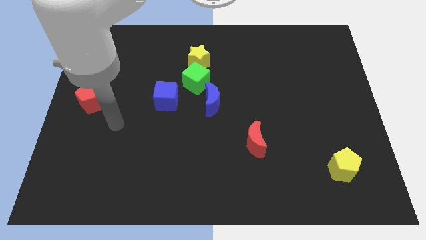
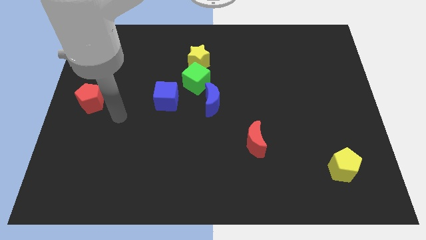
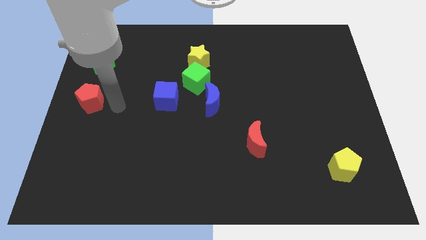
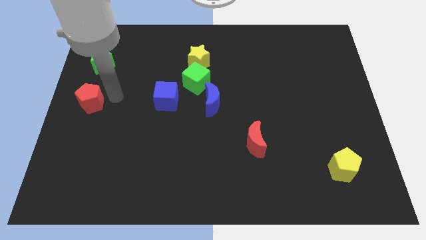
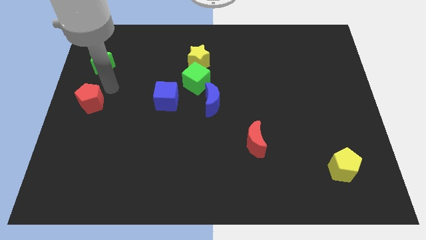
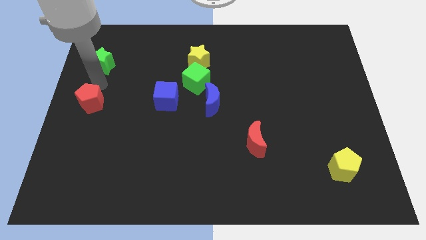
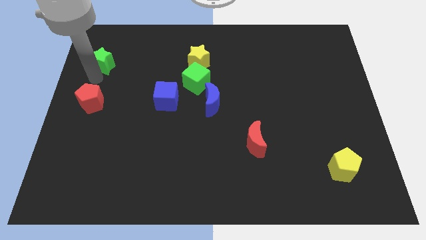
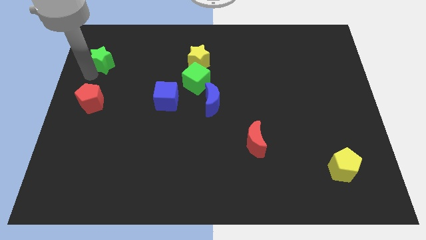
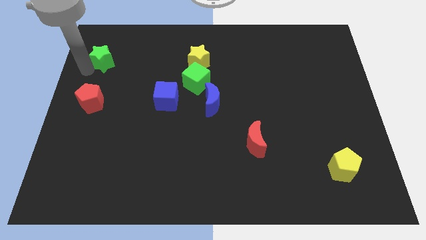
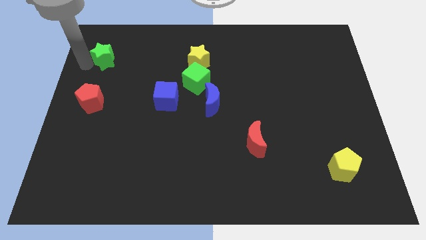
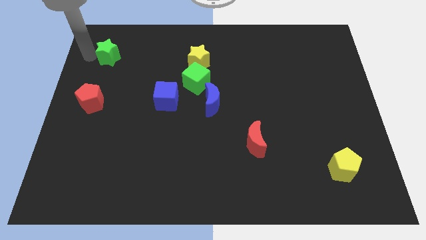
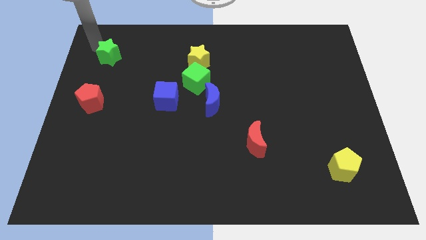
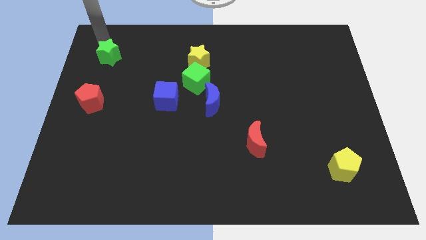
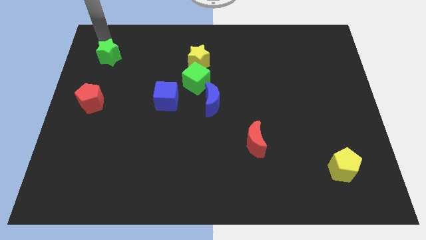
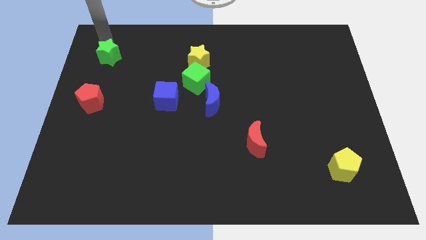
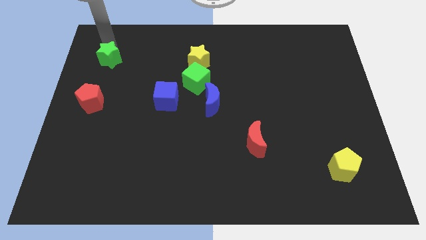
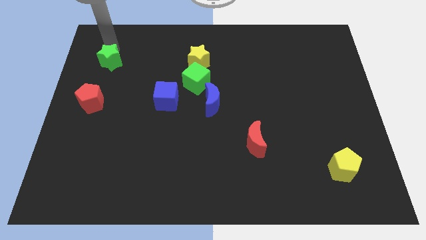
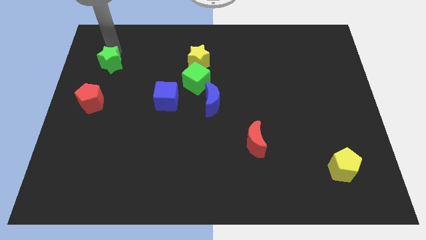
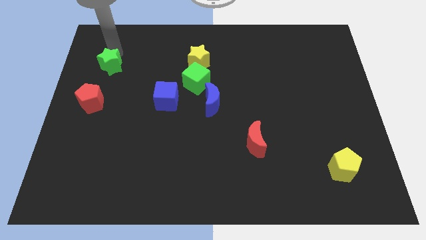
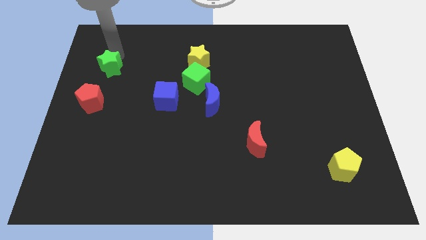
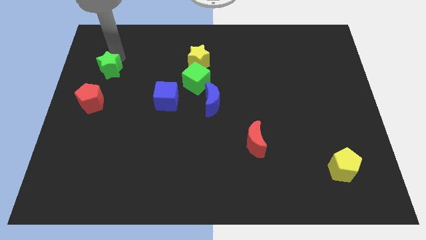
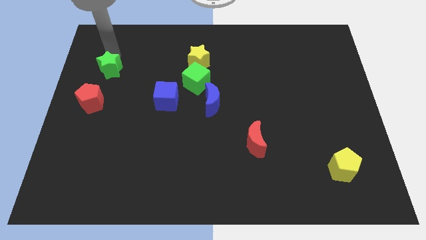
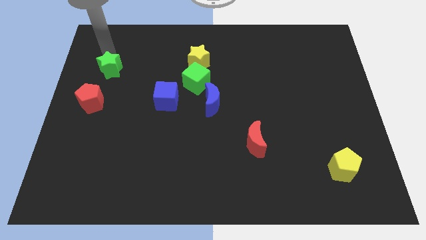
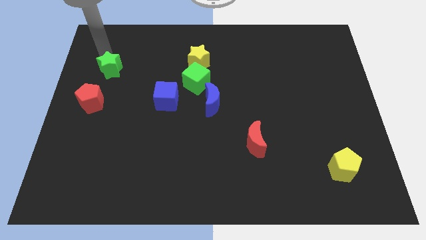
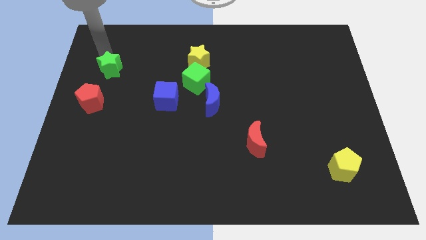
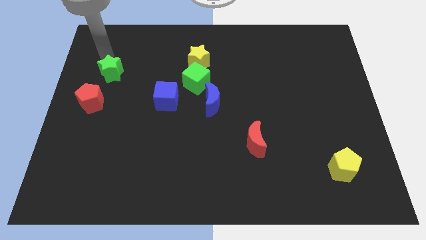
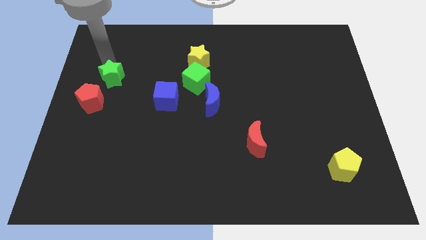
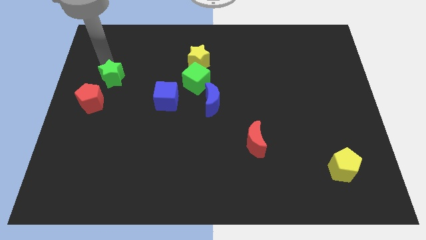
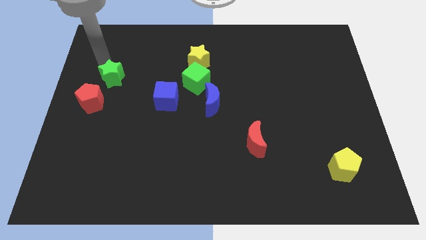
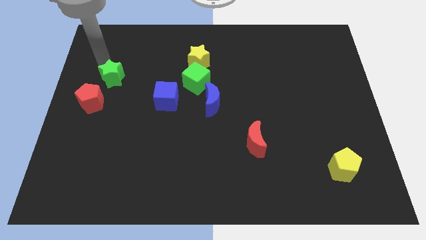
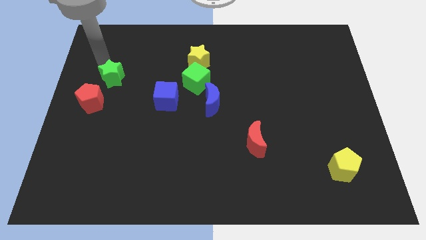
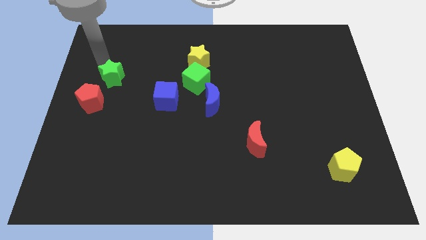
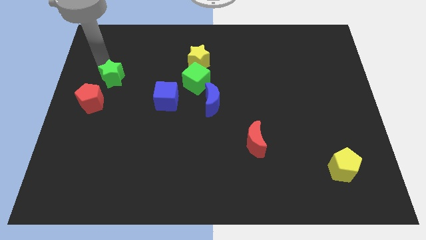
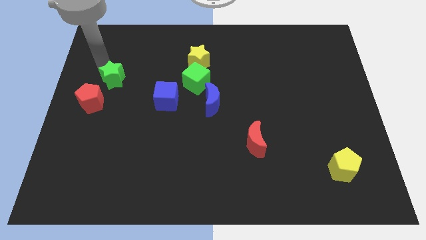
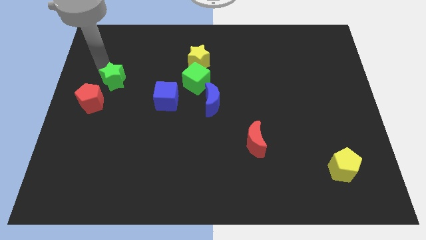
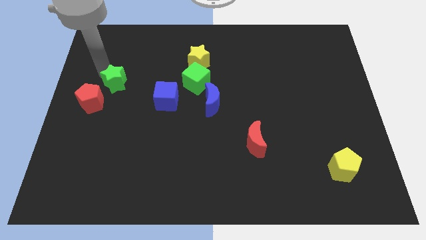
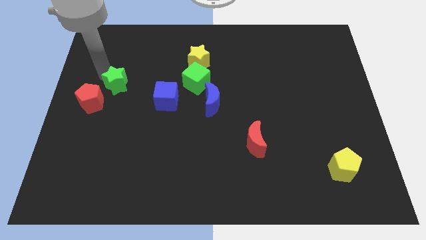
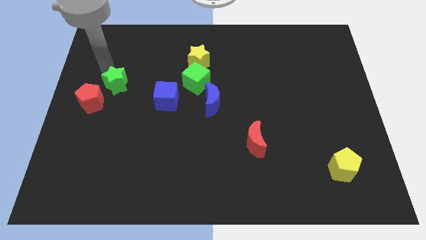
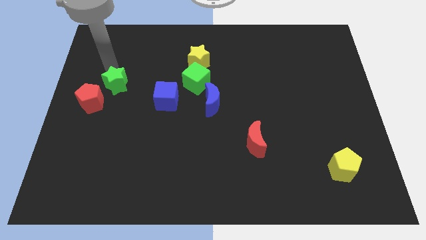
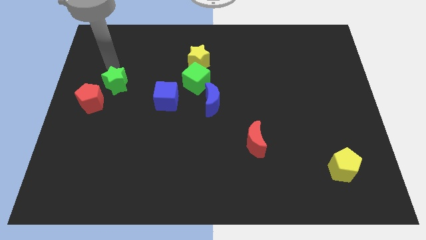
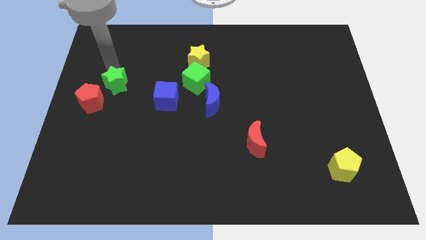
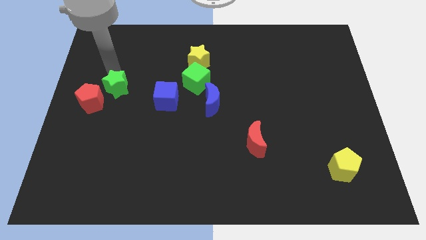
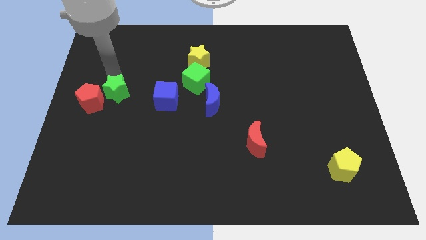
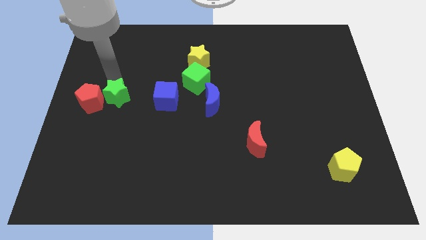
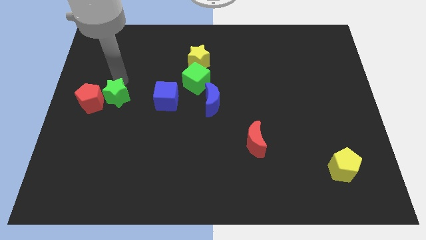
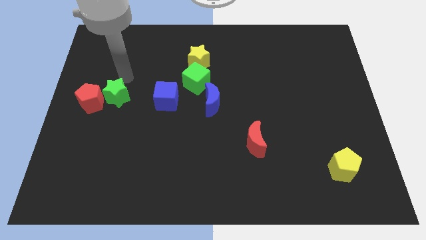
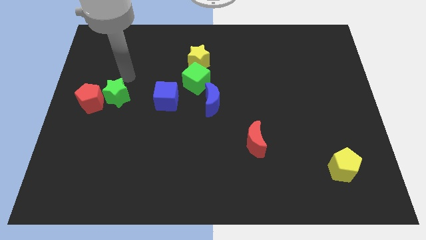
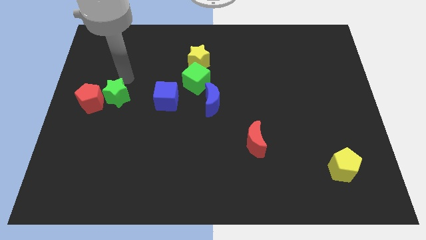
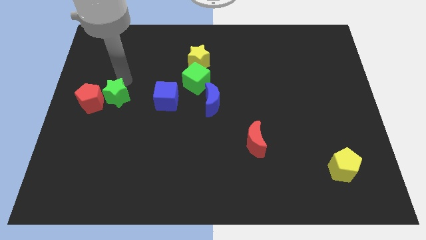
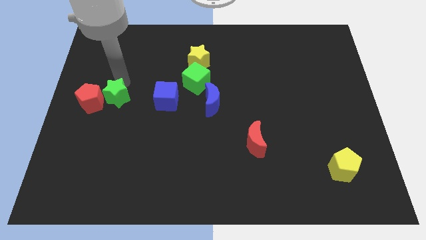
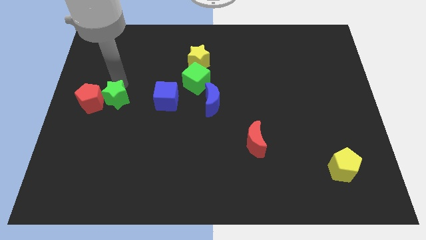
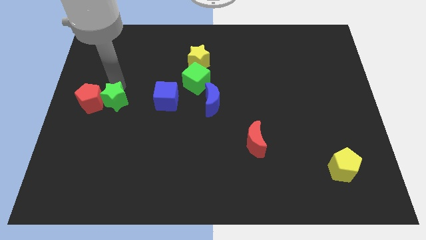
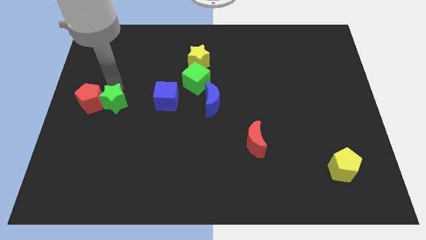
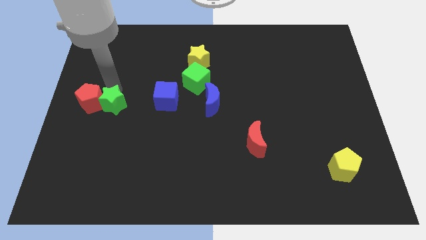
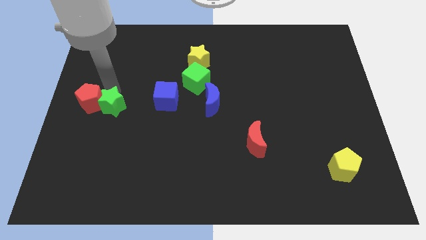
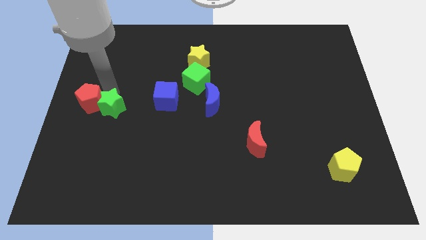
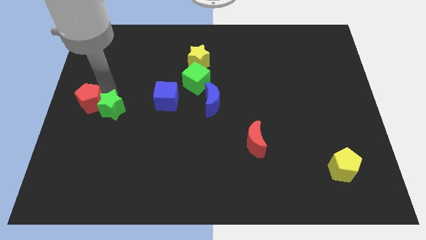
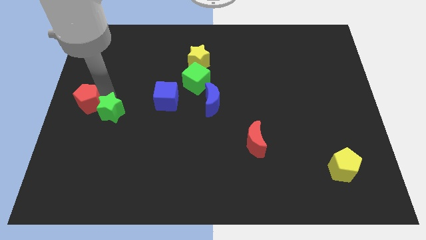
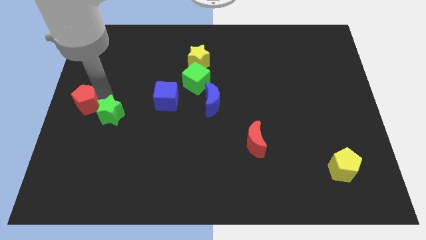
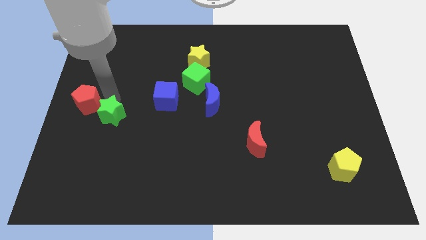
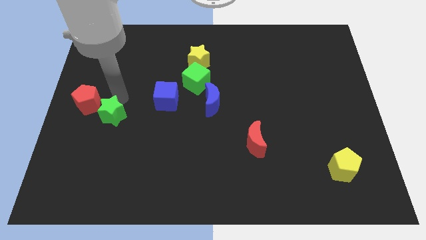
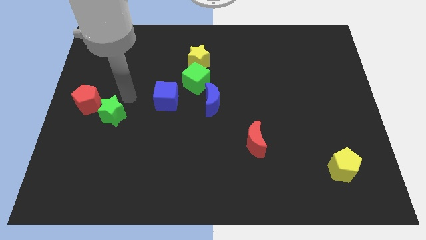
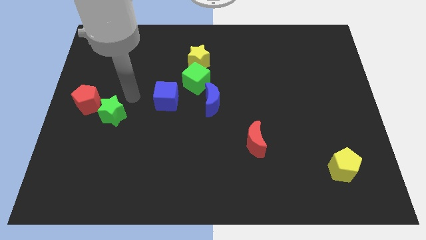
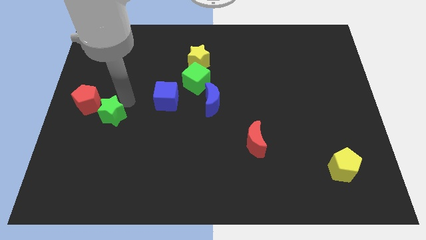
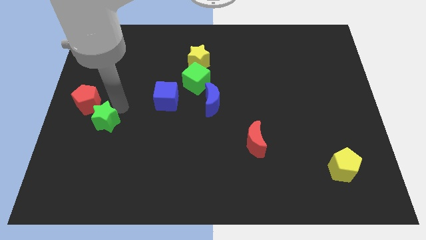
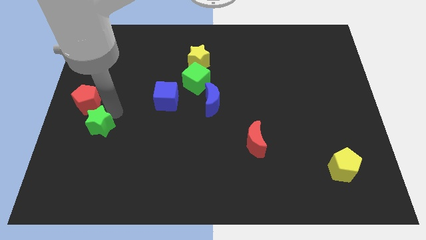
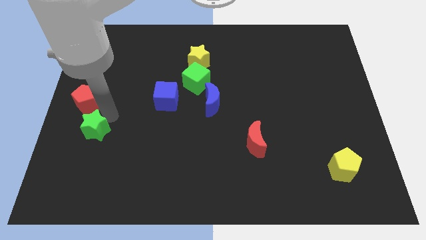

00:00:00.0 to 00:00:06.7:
slide the green star down

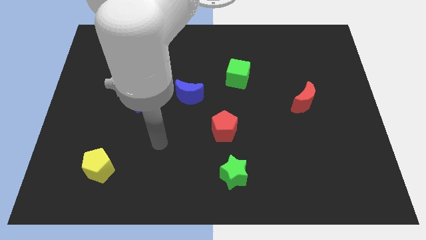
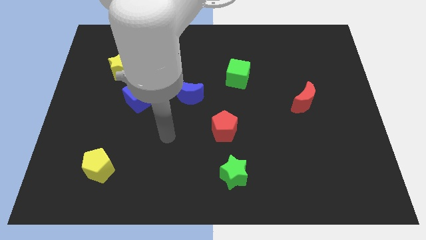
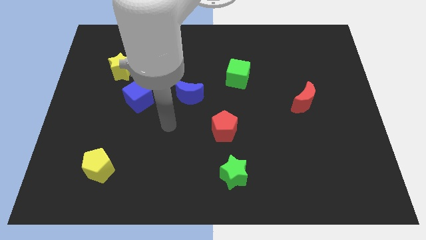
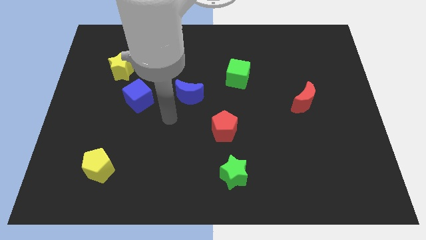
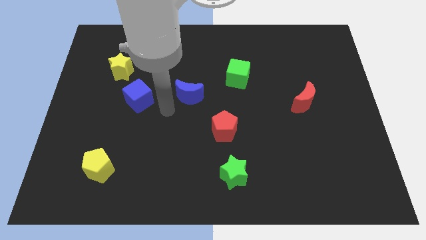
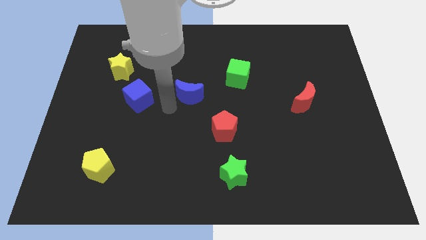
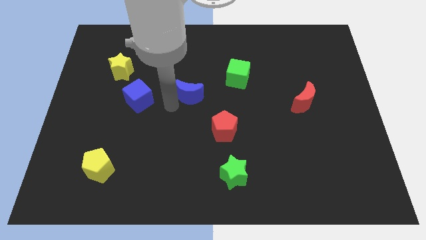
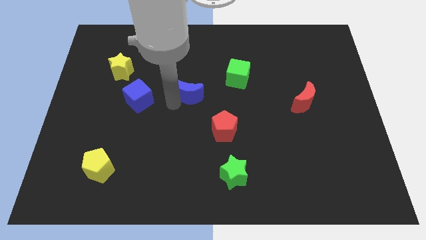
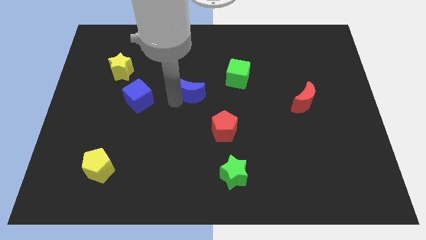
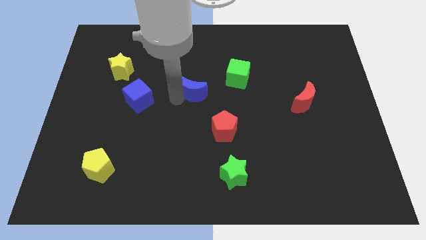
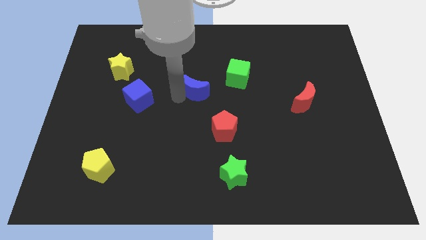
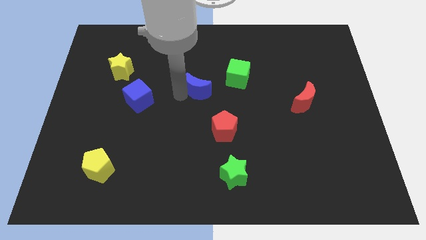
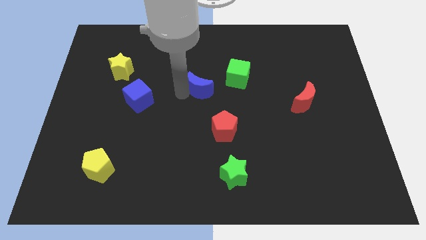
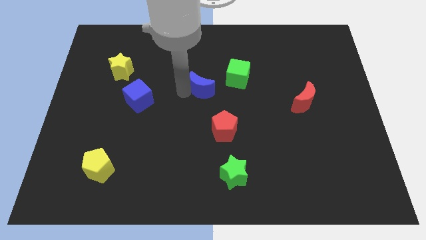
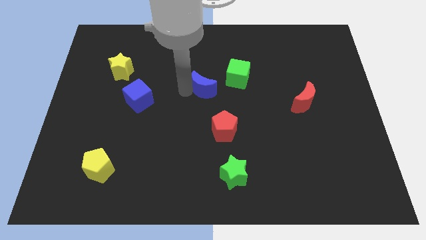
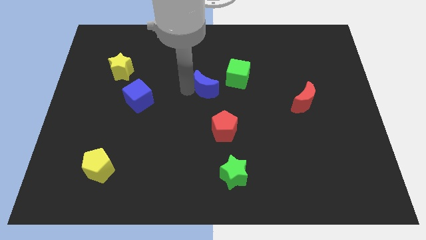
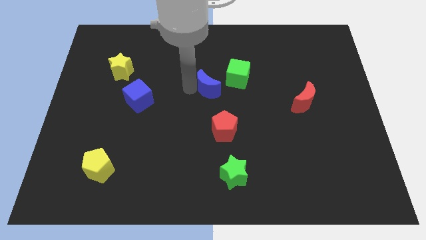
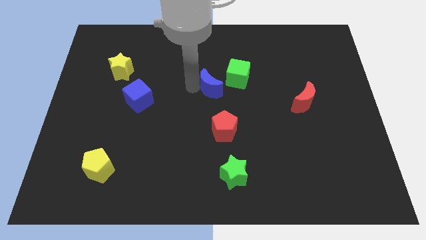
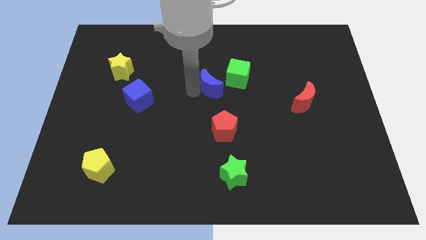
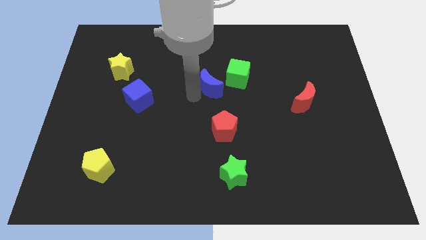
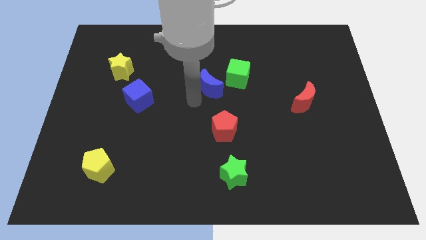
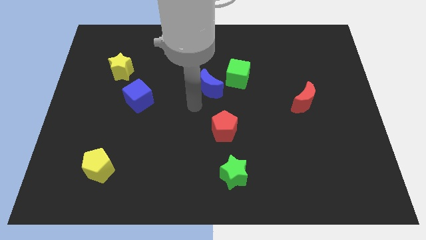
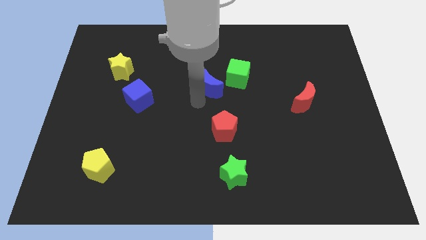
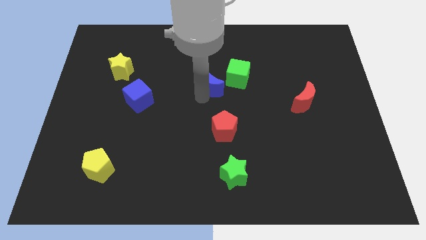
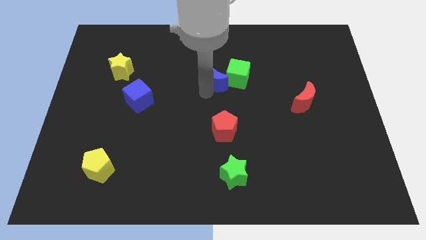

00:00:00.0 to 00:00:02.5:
move the blue moon upwards and to the right a little bit
